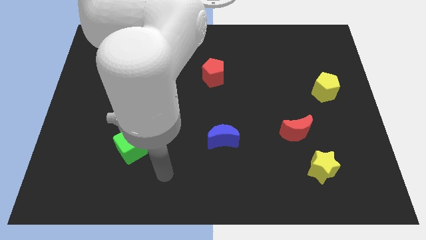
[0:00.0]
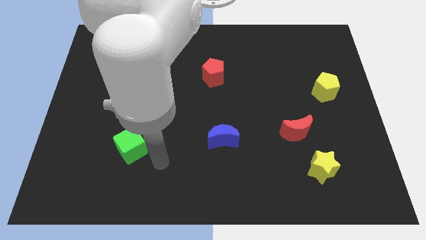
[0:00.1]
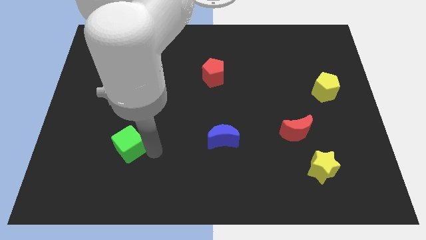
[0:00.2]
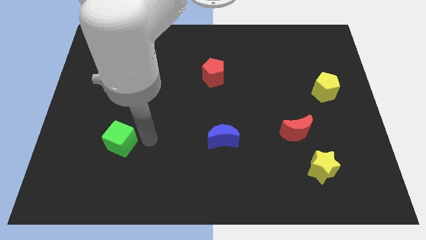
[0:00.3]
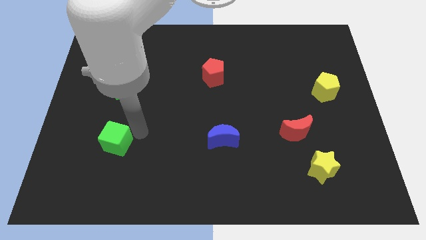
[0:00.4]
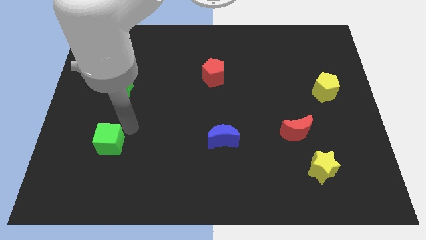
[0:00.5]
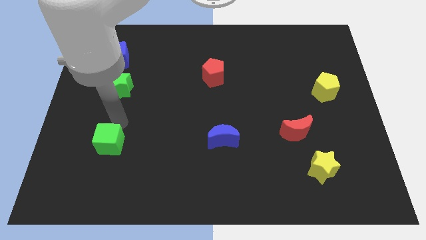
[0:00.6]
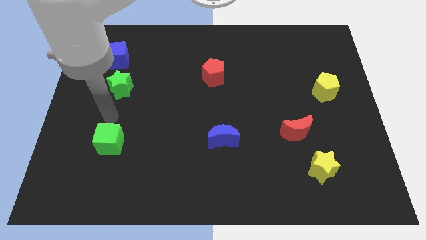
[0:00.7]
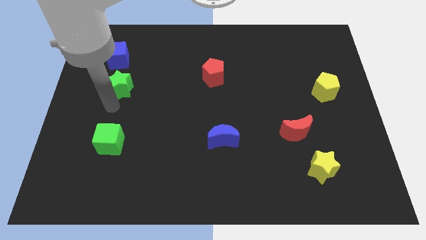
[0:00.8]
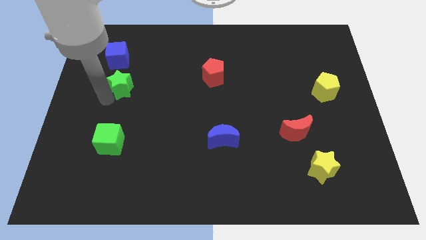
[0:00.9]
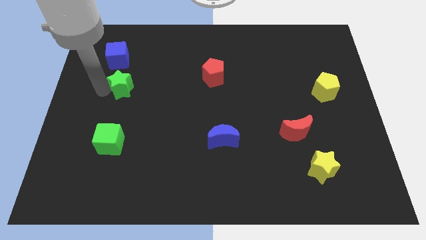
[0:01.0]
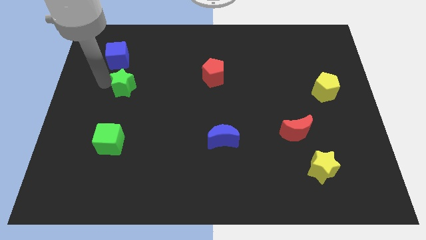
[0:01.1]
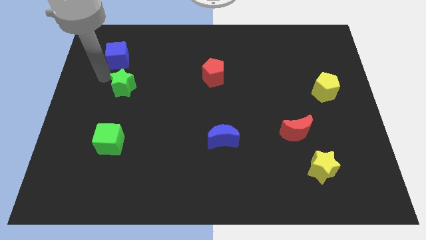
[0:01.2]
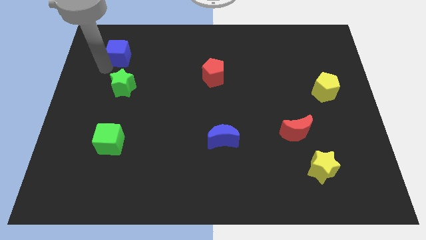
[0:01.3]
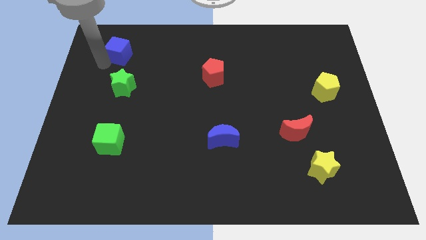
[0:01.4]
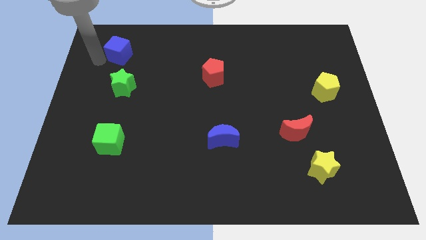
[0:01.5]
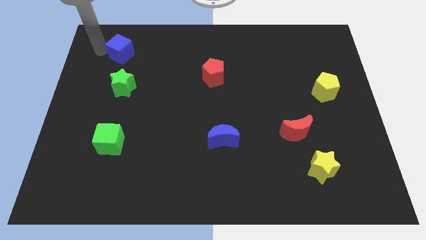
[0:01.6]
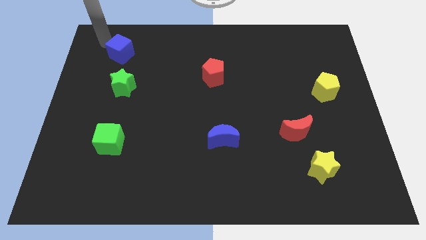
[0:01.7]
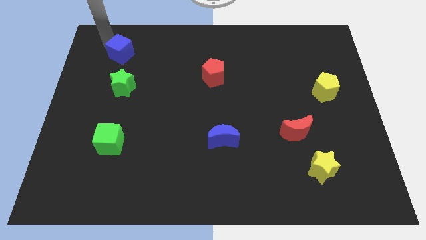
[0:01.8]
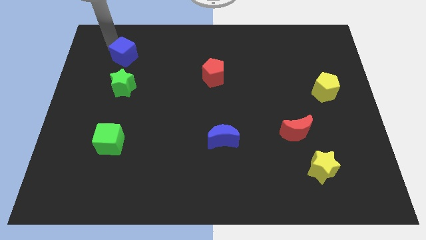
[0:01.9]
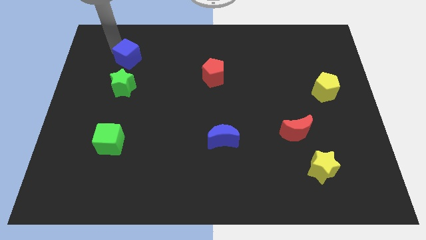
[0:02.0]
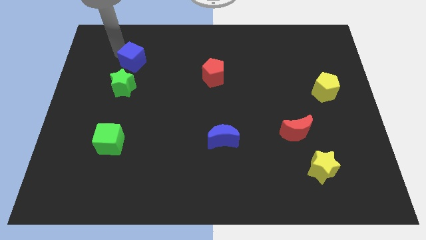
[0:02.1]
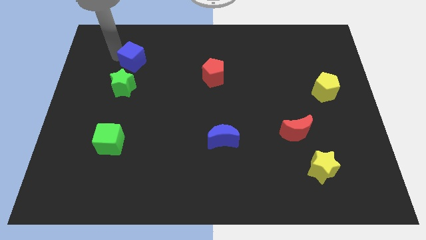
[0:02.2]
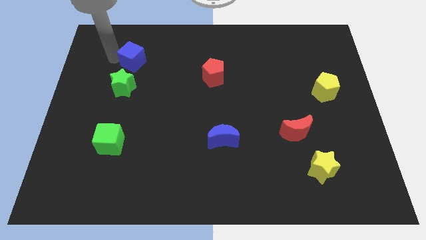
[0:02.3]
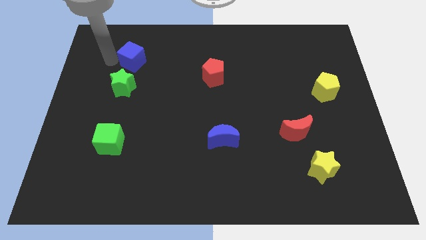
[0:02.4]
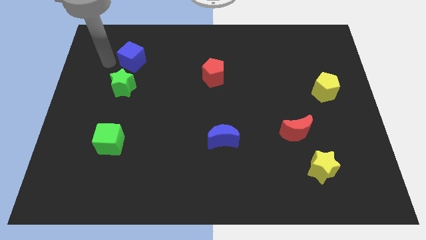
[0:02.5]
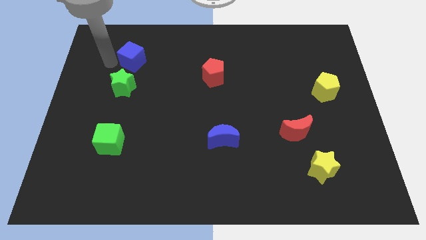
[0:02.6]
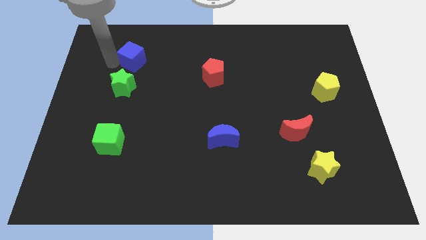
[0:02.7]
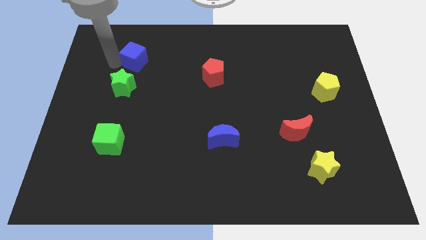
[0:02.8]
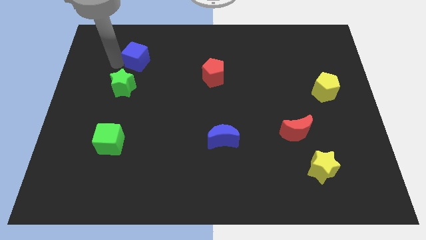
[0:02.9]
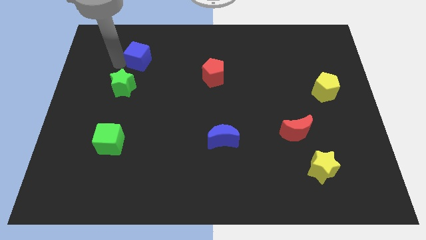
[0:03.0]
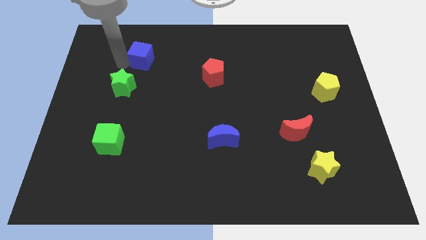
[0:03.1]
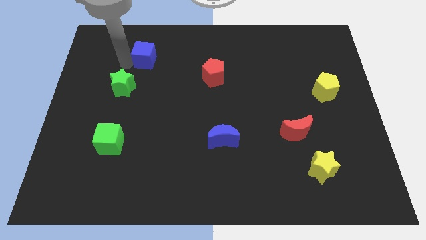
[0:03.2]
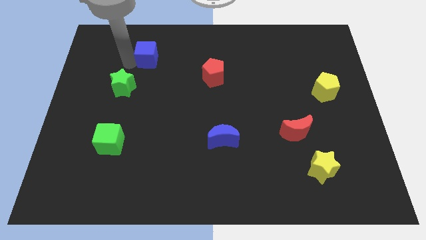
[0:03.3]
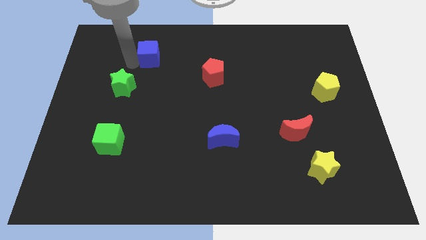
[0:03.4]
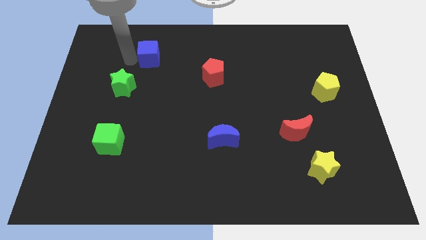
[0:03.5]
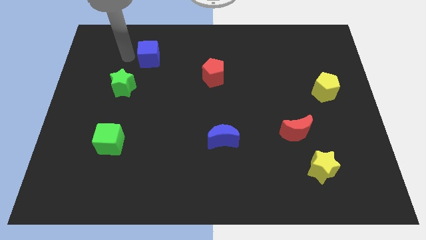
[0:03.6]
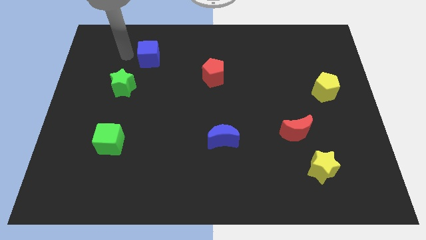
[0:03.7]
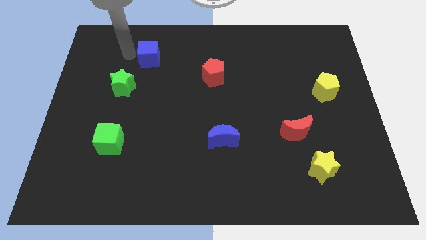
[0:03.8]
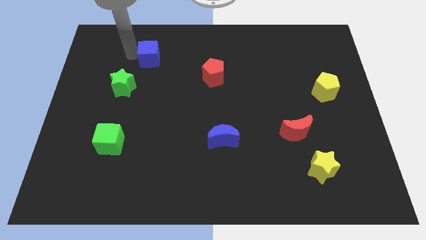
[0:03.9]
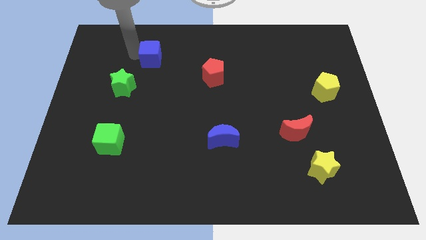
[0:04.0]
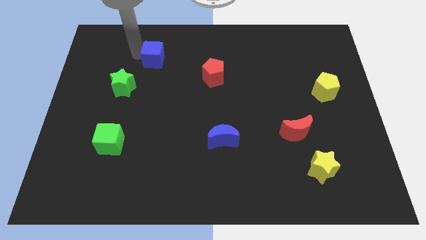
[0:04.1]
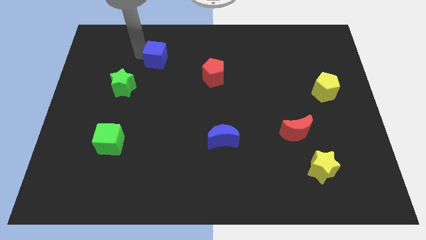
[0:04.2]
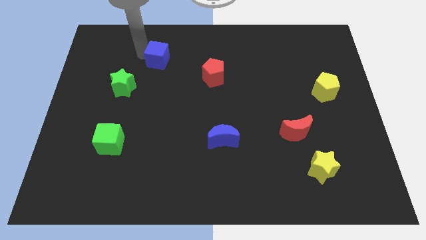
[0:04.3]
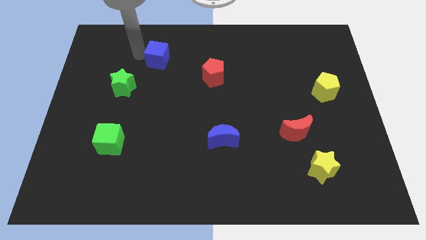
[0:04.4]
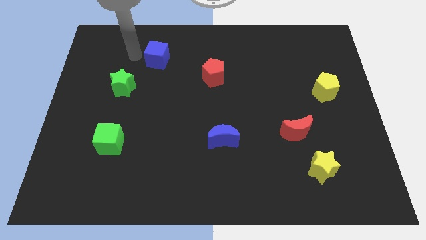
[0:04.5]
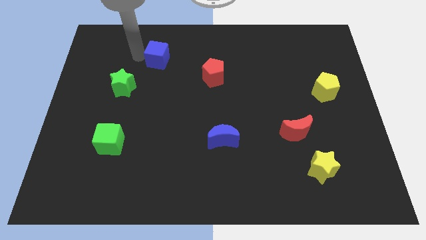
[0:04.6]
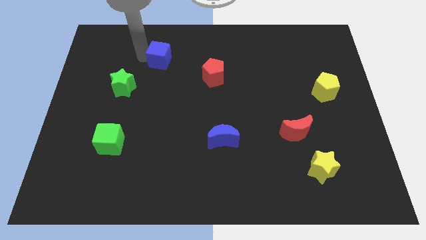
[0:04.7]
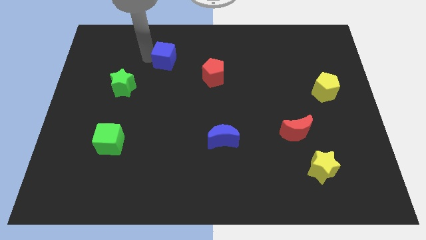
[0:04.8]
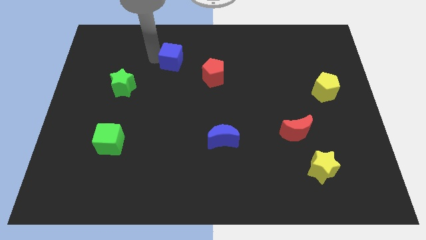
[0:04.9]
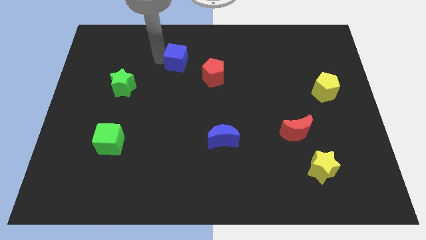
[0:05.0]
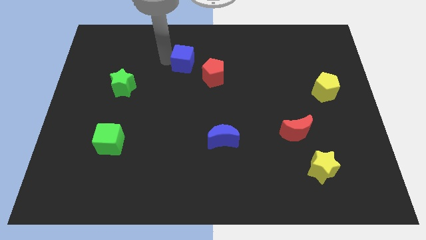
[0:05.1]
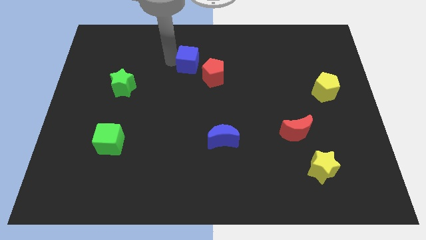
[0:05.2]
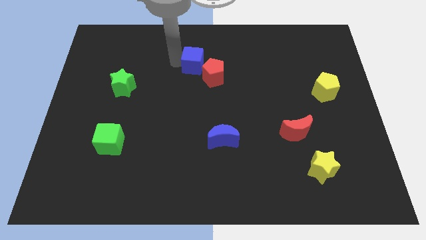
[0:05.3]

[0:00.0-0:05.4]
push the blue cube right

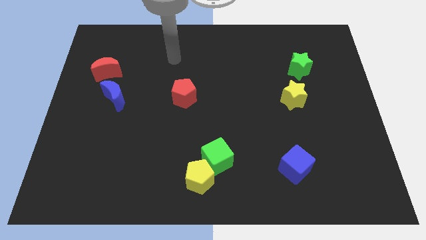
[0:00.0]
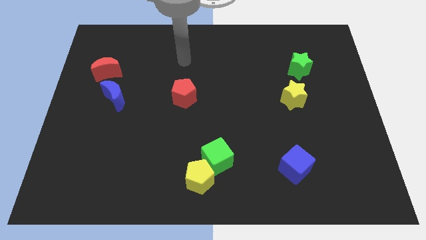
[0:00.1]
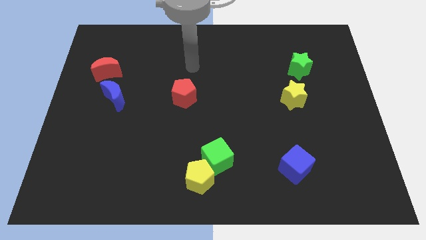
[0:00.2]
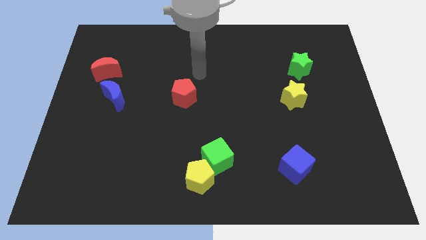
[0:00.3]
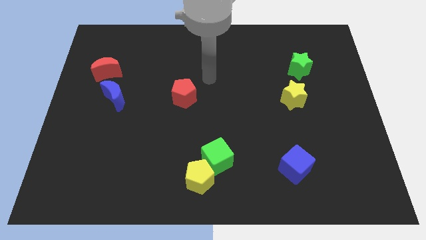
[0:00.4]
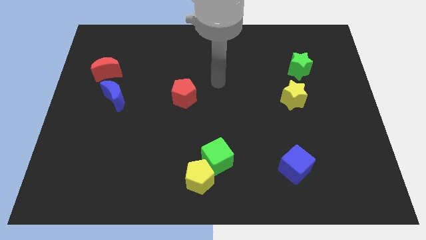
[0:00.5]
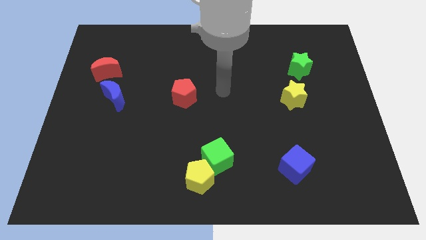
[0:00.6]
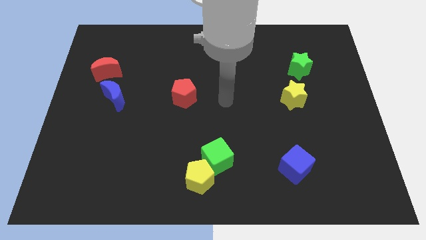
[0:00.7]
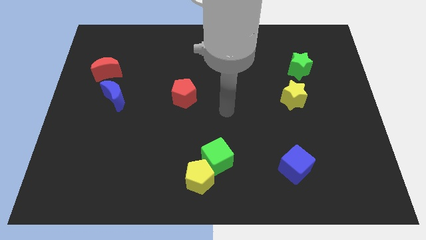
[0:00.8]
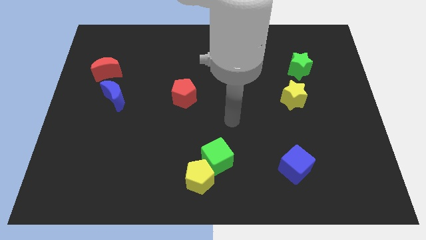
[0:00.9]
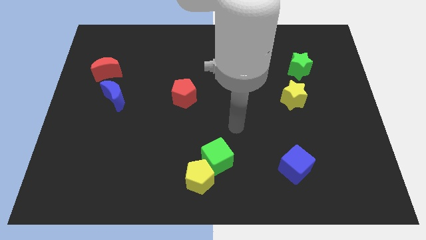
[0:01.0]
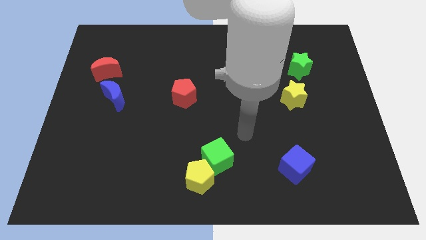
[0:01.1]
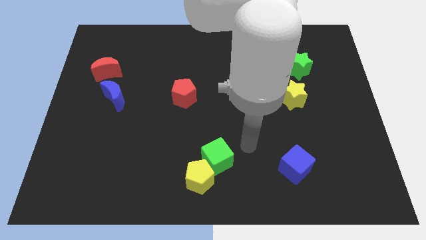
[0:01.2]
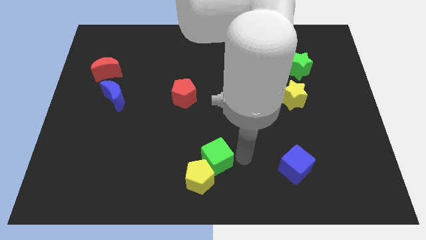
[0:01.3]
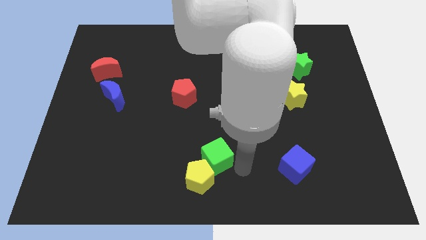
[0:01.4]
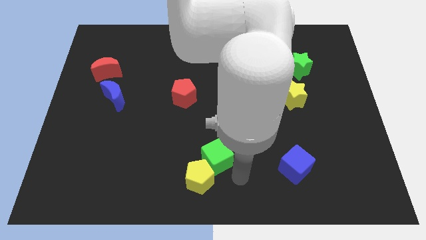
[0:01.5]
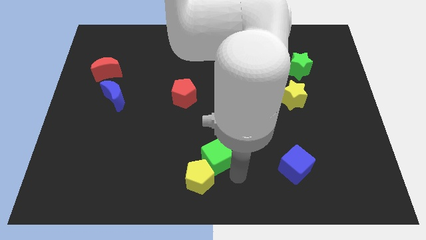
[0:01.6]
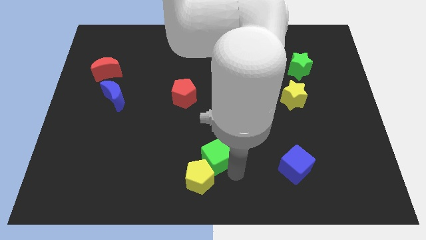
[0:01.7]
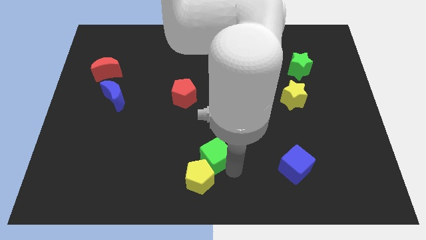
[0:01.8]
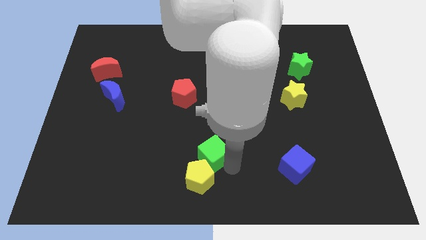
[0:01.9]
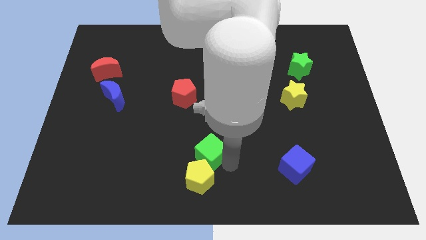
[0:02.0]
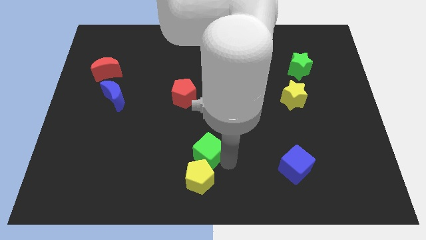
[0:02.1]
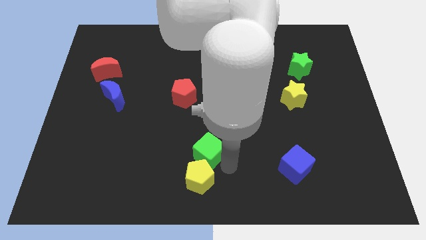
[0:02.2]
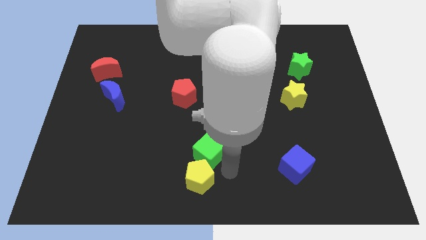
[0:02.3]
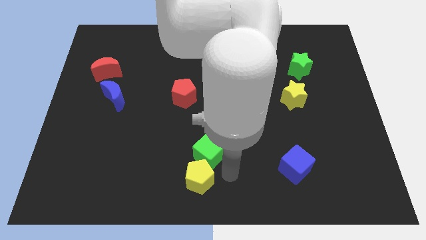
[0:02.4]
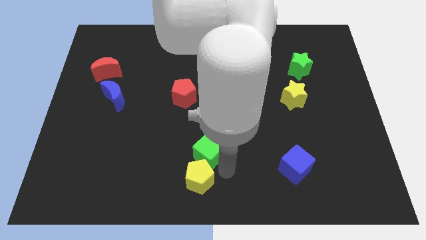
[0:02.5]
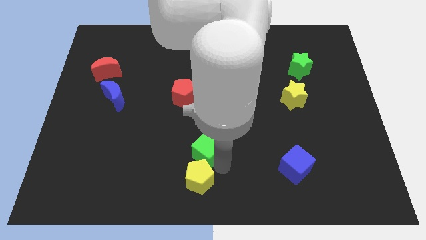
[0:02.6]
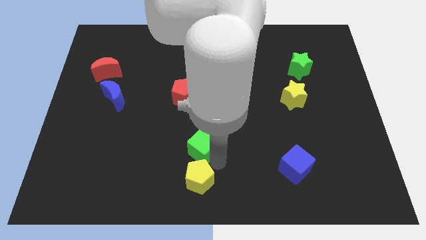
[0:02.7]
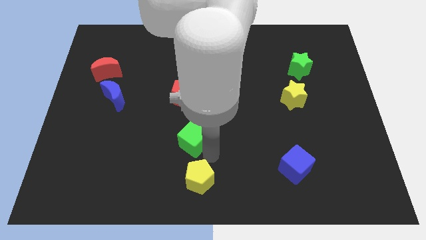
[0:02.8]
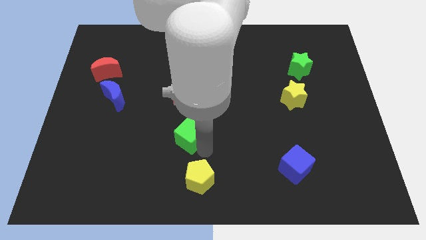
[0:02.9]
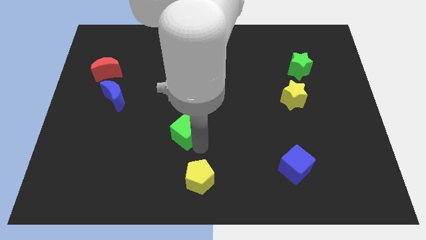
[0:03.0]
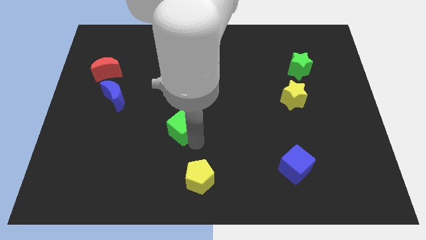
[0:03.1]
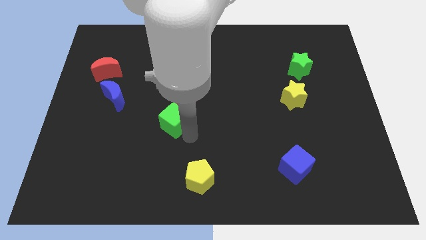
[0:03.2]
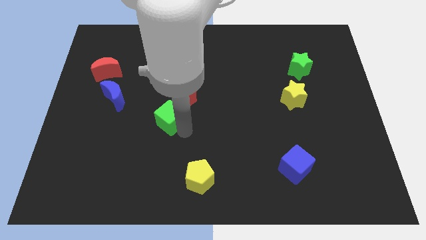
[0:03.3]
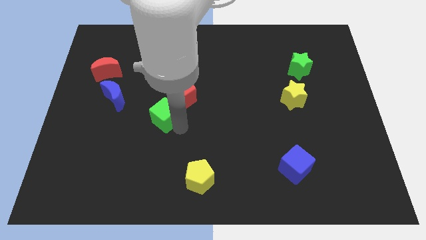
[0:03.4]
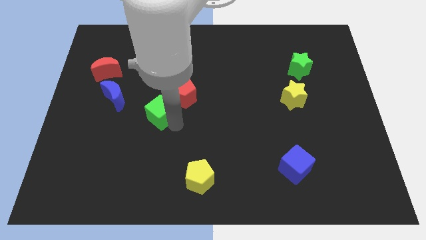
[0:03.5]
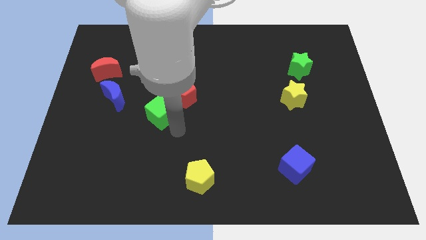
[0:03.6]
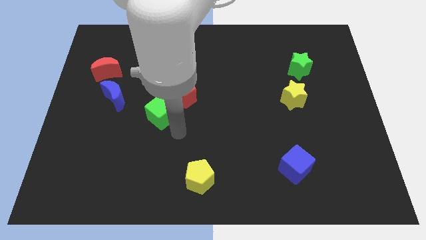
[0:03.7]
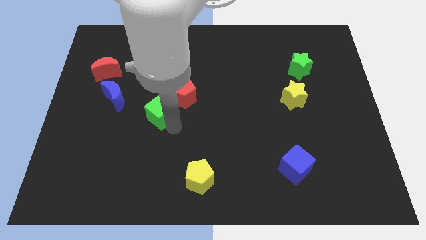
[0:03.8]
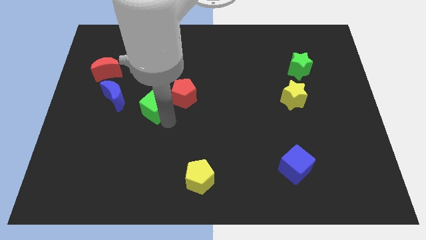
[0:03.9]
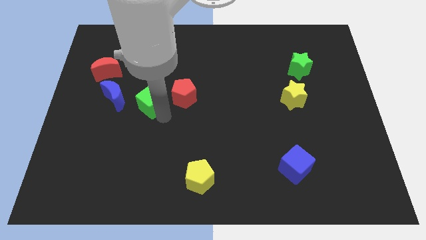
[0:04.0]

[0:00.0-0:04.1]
push the green cube up and left diagonally
